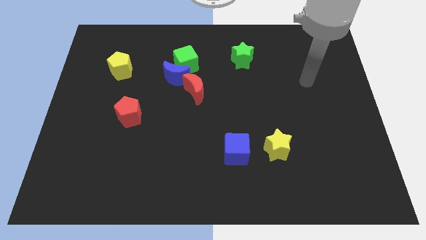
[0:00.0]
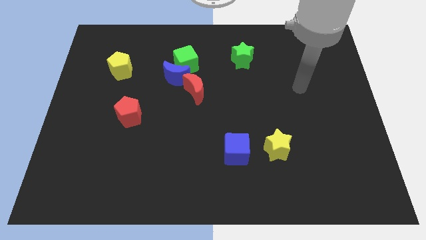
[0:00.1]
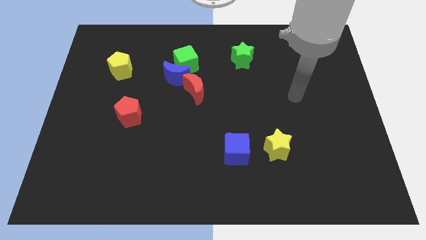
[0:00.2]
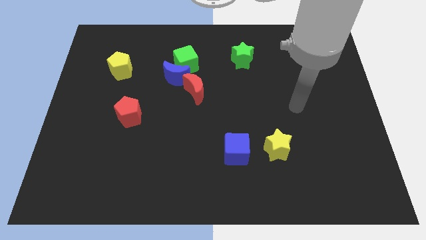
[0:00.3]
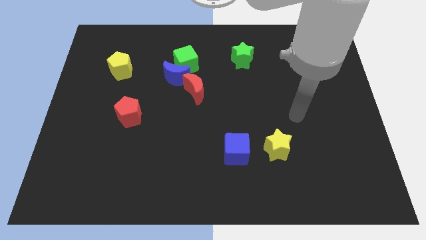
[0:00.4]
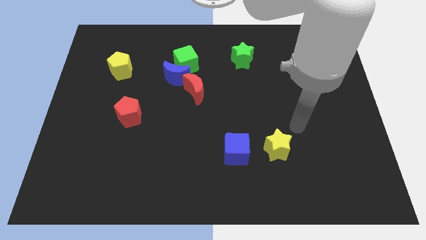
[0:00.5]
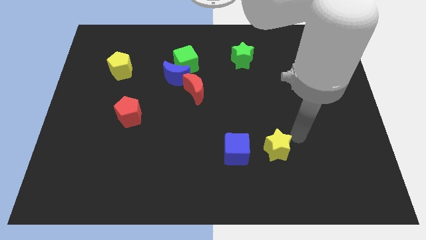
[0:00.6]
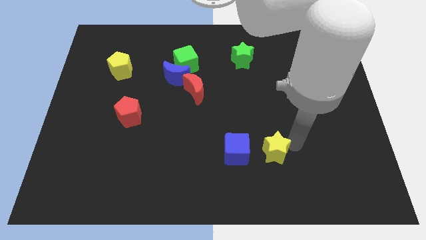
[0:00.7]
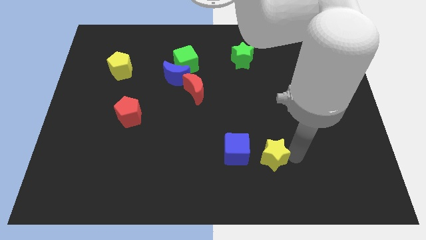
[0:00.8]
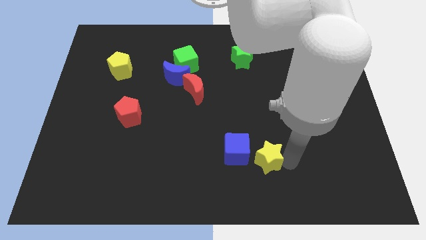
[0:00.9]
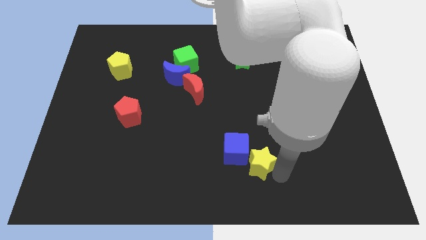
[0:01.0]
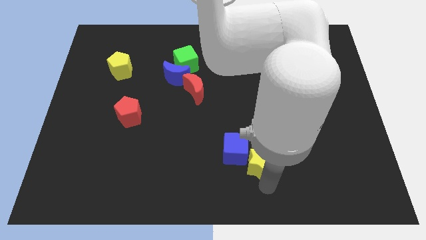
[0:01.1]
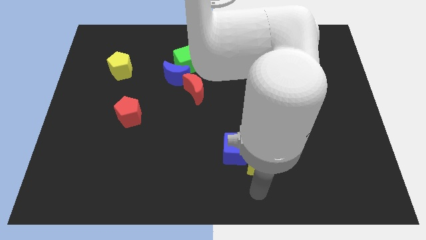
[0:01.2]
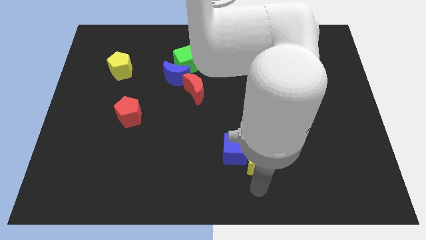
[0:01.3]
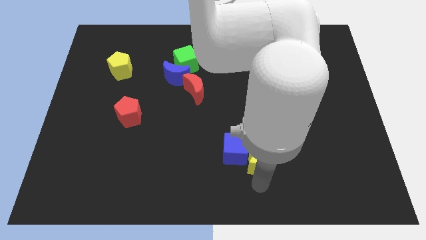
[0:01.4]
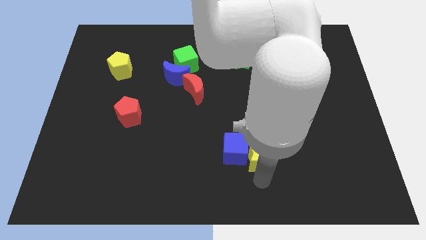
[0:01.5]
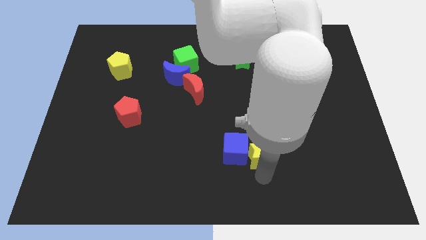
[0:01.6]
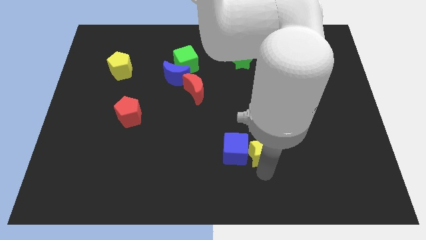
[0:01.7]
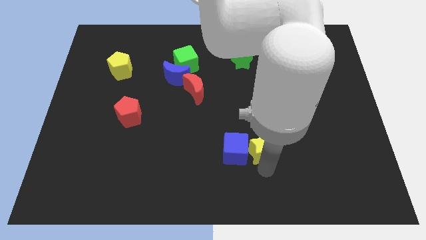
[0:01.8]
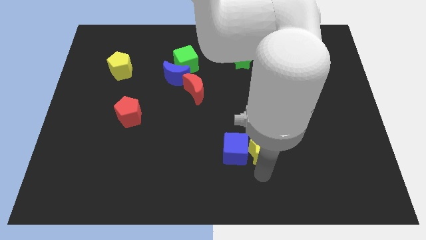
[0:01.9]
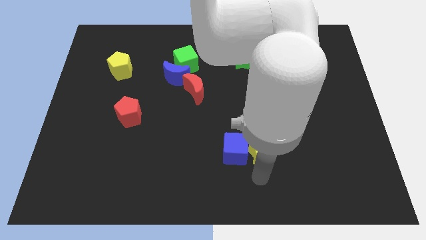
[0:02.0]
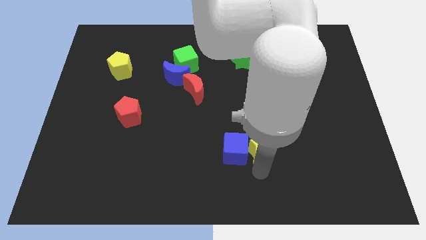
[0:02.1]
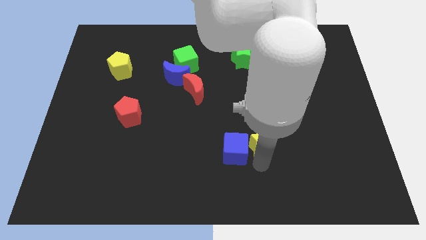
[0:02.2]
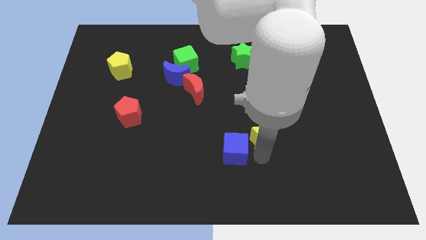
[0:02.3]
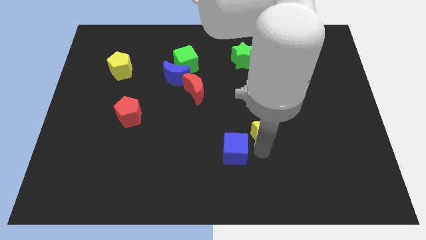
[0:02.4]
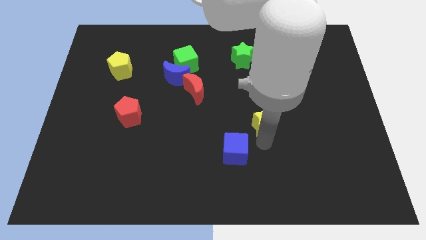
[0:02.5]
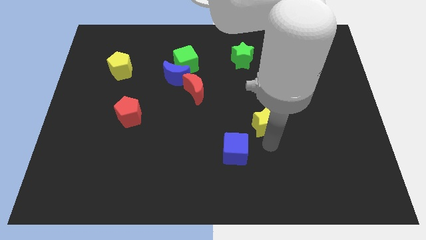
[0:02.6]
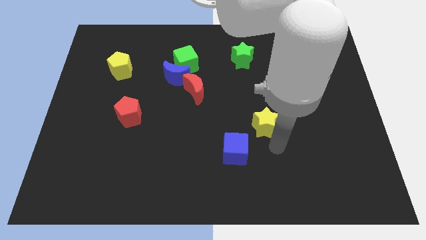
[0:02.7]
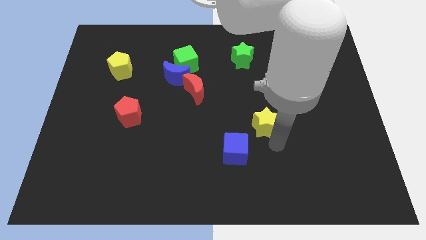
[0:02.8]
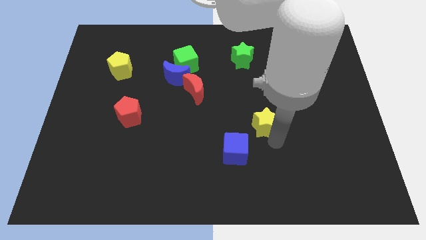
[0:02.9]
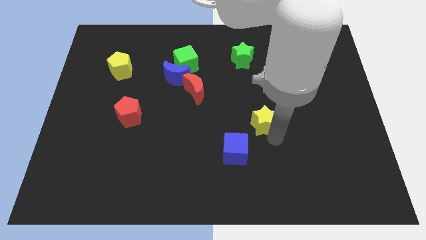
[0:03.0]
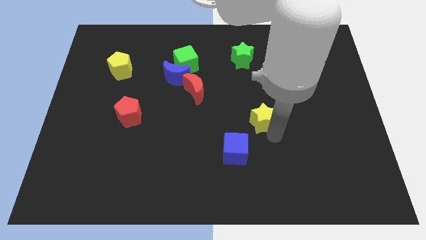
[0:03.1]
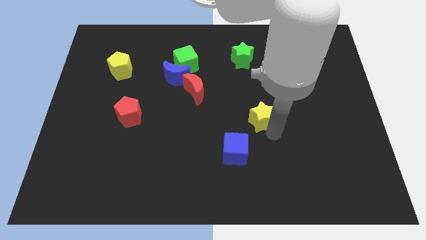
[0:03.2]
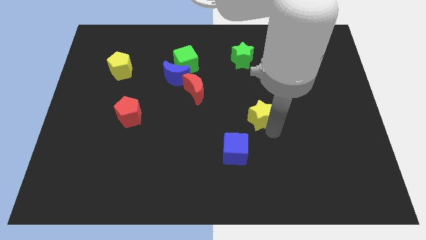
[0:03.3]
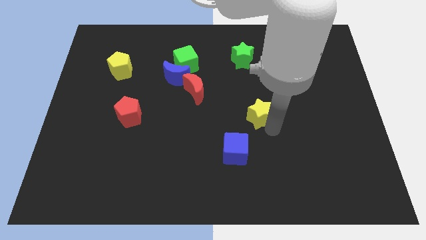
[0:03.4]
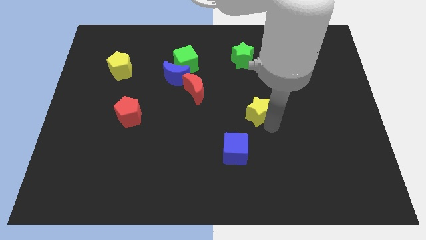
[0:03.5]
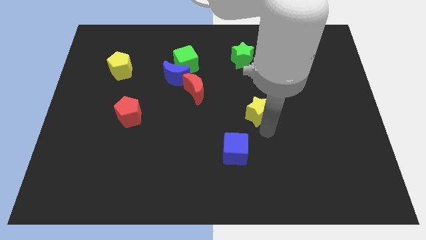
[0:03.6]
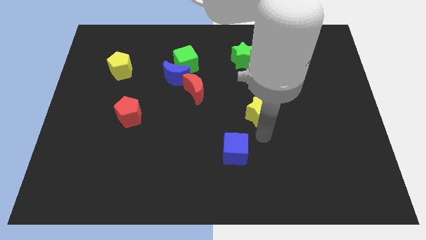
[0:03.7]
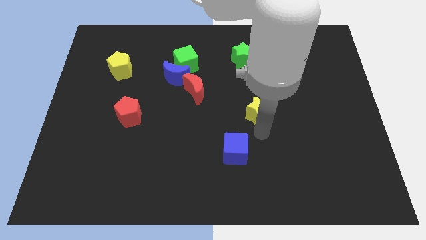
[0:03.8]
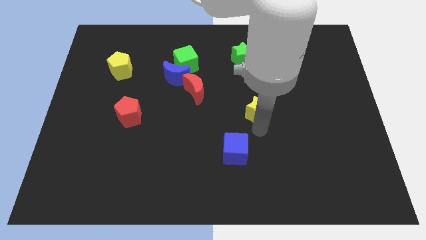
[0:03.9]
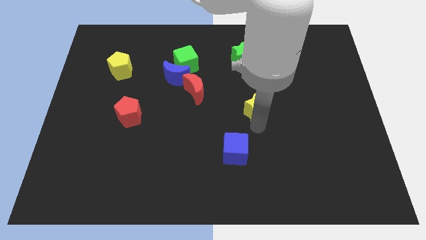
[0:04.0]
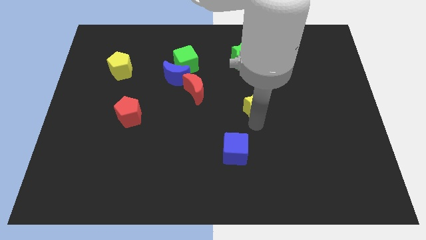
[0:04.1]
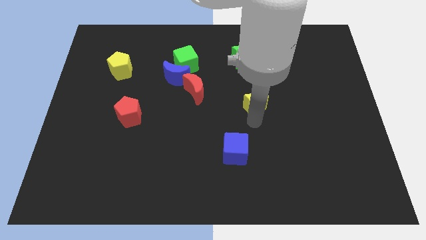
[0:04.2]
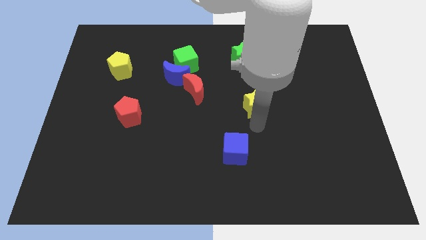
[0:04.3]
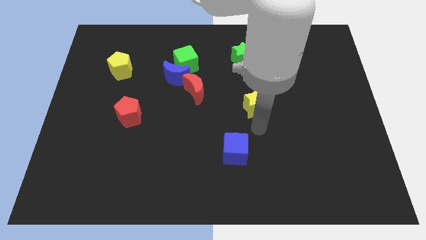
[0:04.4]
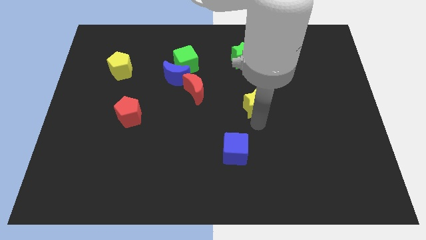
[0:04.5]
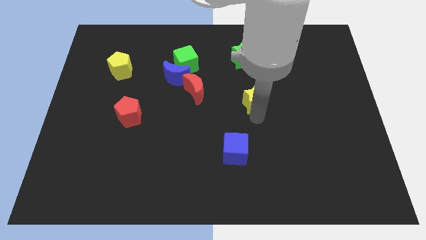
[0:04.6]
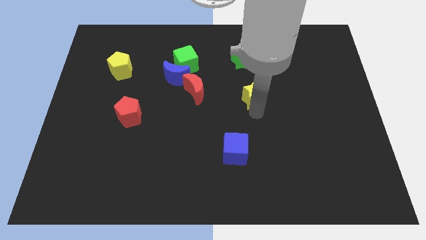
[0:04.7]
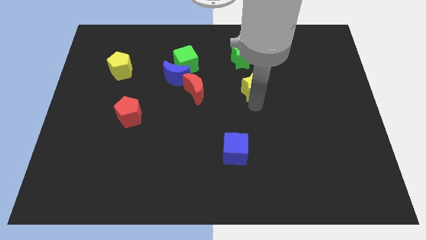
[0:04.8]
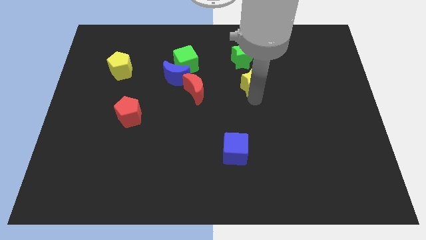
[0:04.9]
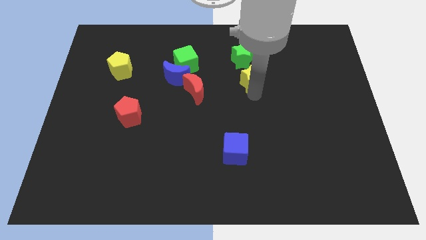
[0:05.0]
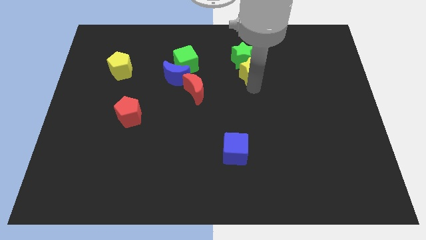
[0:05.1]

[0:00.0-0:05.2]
move the yellow star close to the green star

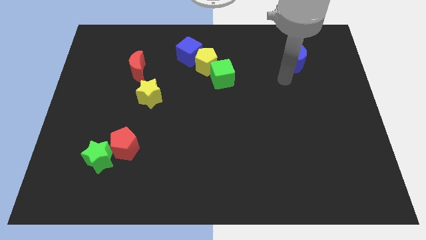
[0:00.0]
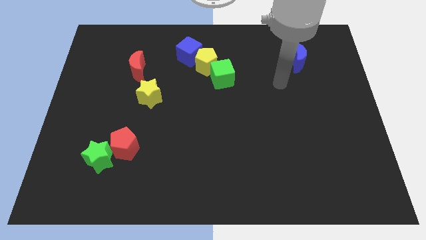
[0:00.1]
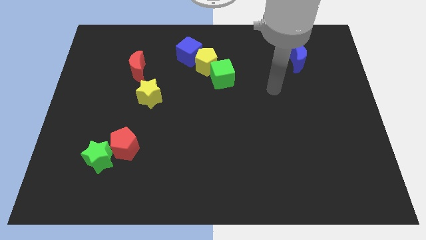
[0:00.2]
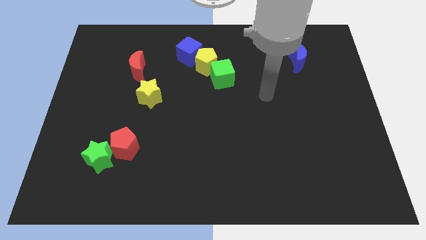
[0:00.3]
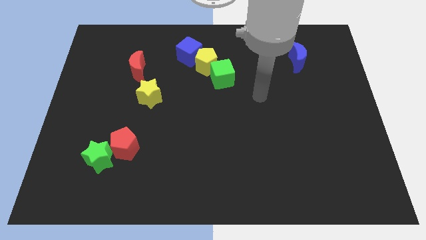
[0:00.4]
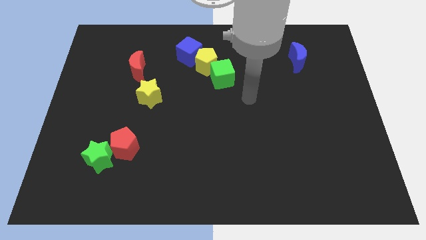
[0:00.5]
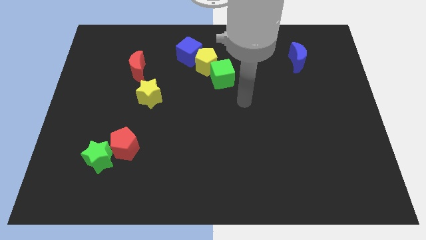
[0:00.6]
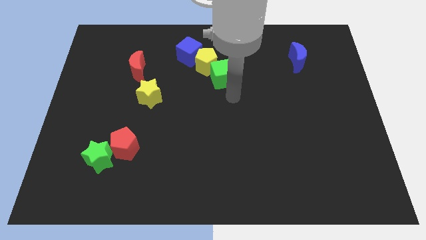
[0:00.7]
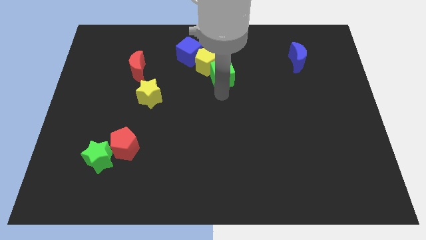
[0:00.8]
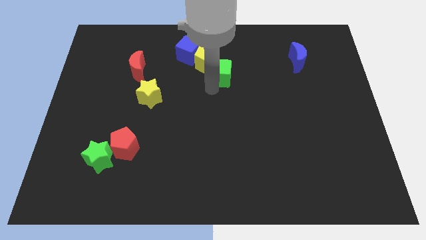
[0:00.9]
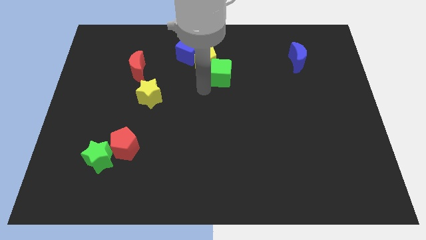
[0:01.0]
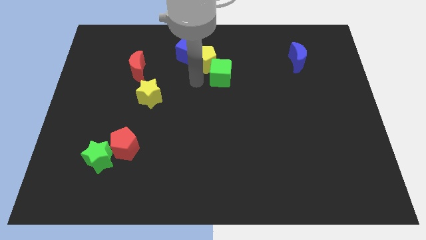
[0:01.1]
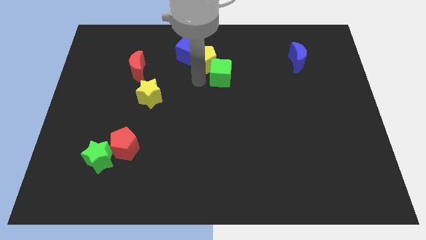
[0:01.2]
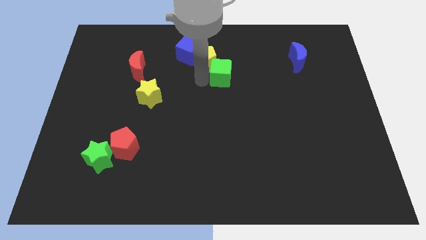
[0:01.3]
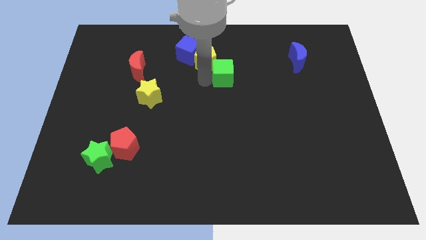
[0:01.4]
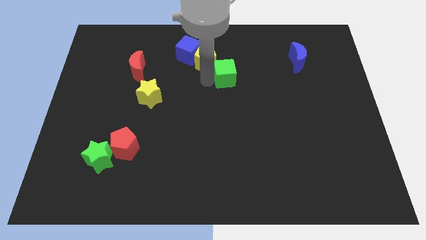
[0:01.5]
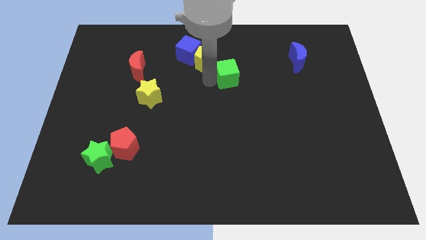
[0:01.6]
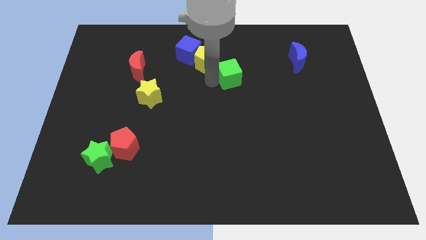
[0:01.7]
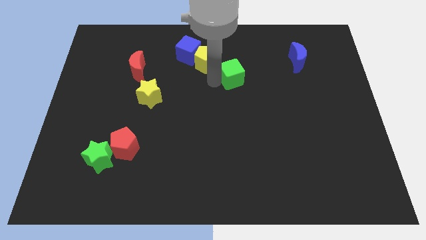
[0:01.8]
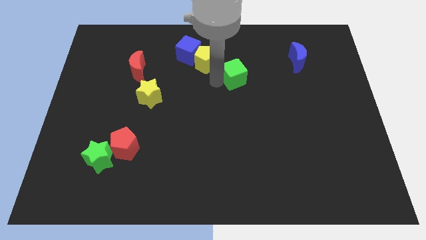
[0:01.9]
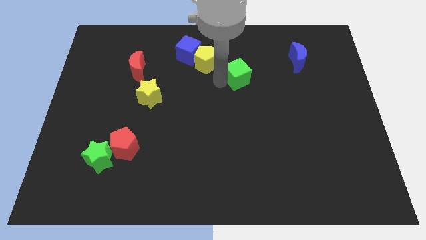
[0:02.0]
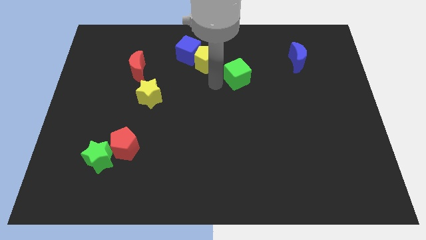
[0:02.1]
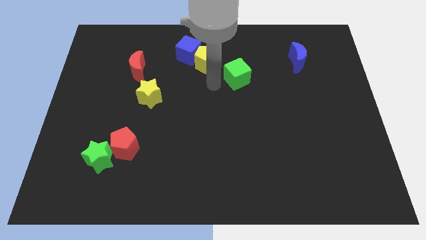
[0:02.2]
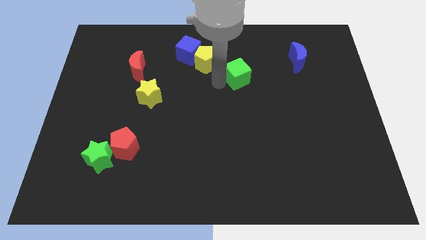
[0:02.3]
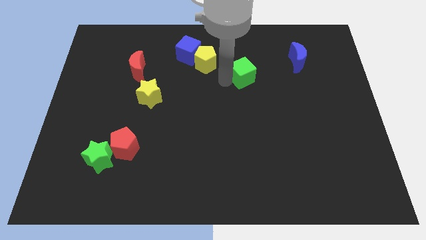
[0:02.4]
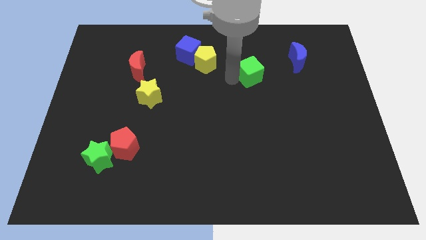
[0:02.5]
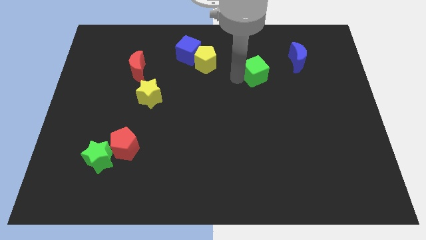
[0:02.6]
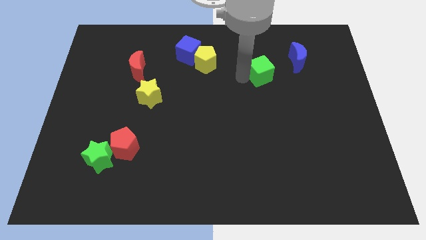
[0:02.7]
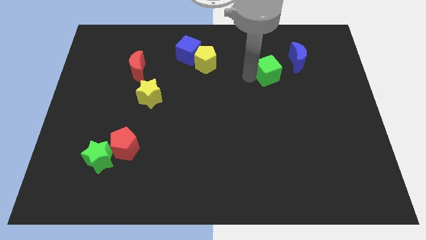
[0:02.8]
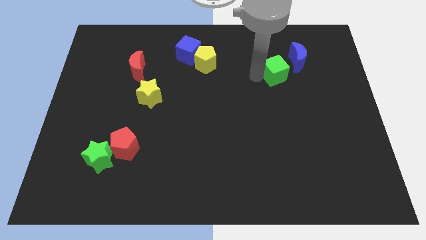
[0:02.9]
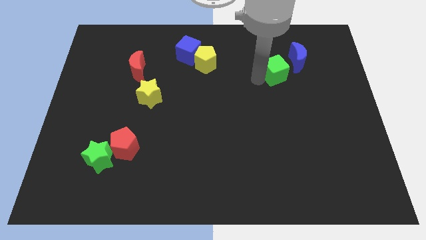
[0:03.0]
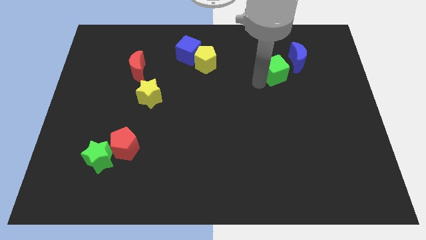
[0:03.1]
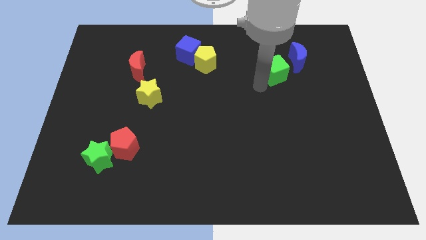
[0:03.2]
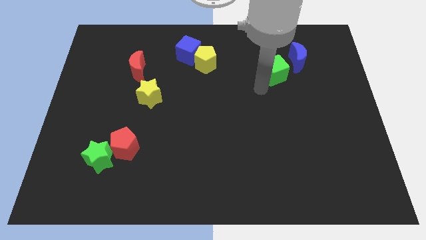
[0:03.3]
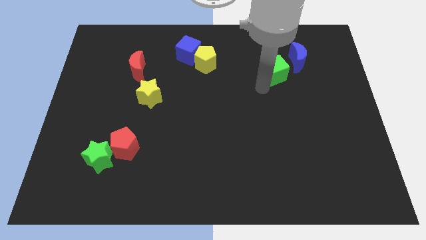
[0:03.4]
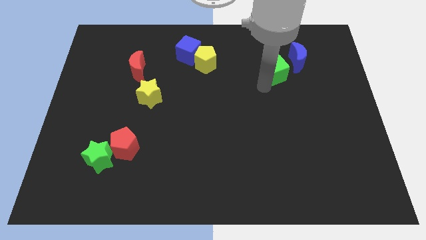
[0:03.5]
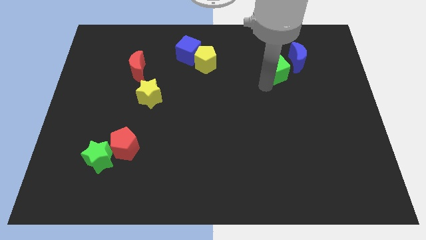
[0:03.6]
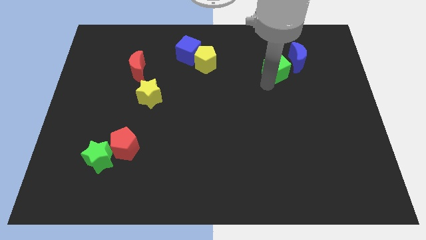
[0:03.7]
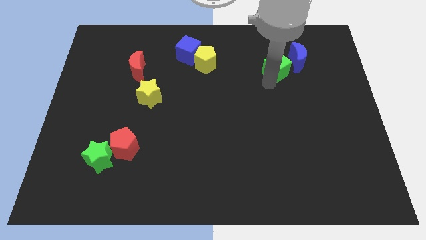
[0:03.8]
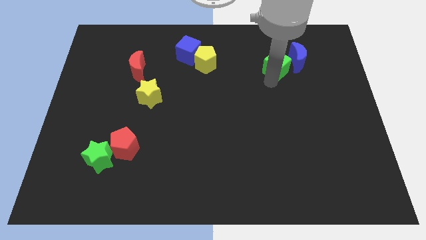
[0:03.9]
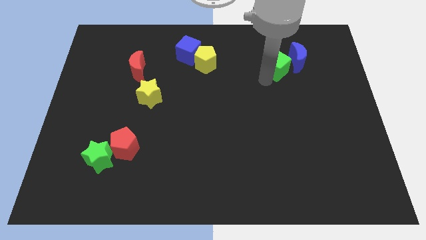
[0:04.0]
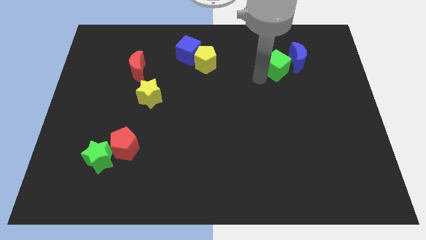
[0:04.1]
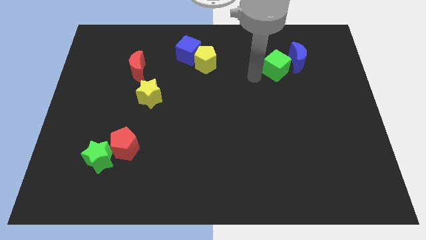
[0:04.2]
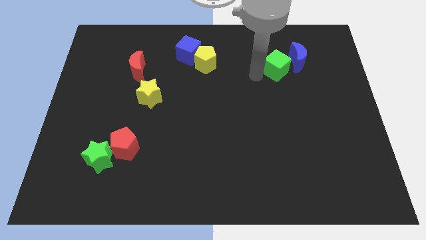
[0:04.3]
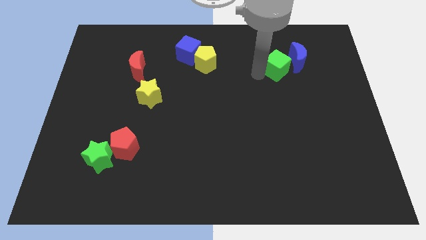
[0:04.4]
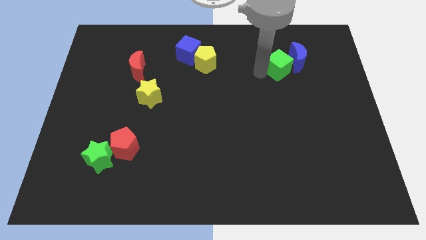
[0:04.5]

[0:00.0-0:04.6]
slide the green cube next to the blue moon
